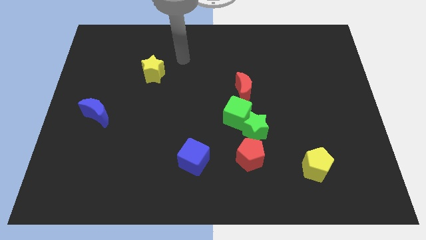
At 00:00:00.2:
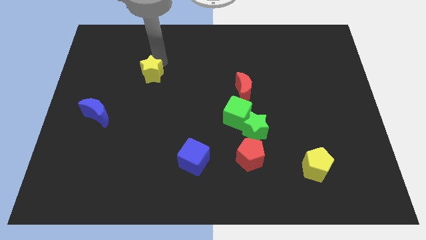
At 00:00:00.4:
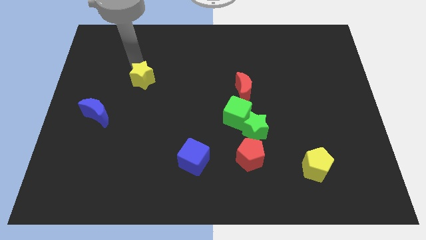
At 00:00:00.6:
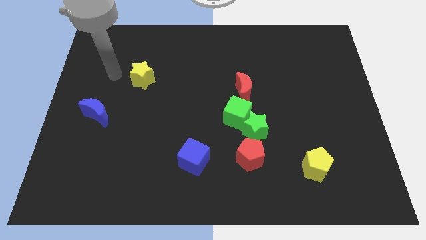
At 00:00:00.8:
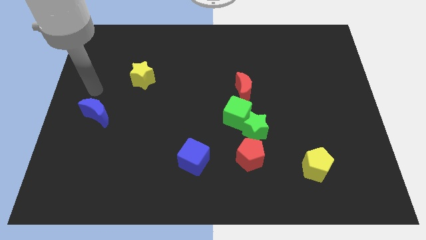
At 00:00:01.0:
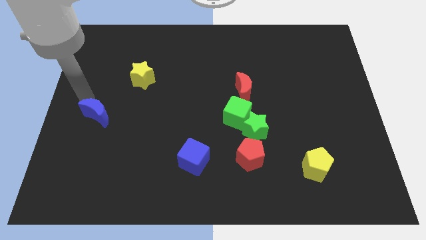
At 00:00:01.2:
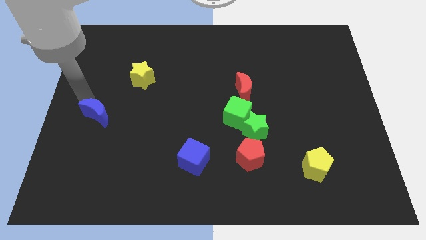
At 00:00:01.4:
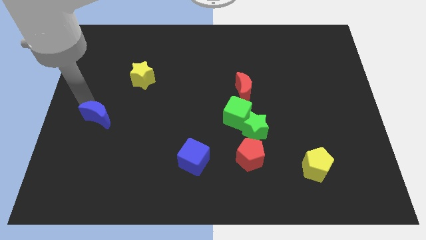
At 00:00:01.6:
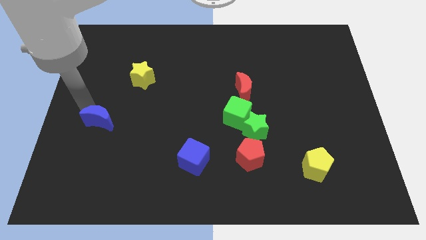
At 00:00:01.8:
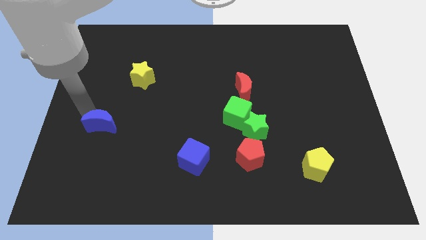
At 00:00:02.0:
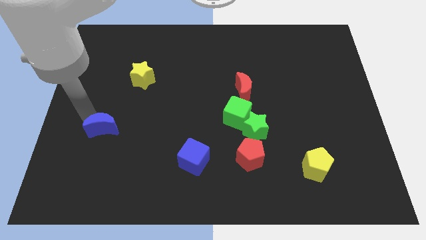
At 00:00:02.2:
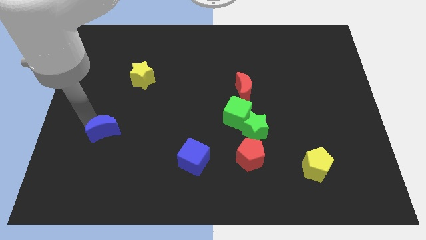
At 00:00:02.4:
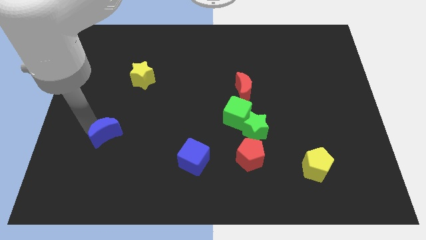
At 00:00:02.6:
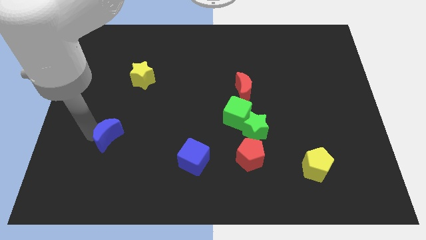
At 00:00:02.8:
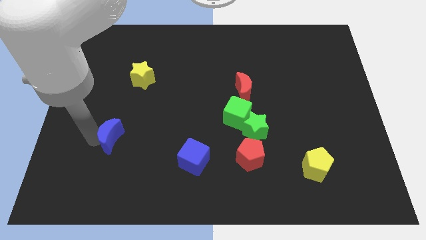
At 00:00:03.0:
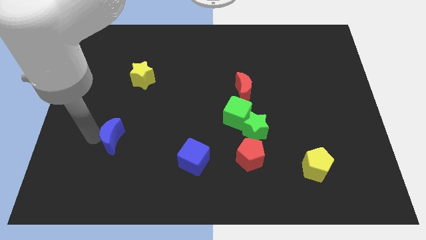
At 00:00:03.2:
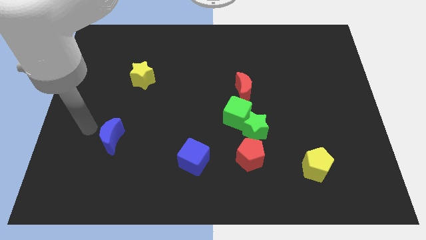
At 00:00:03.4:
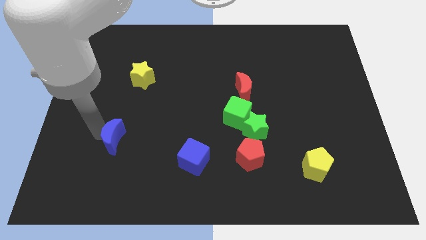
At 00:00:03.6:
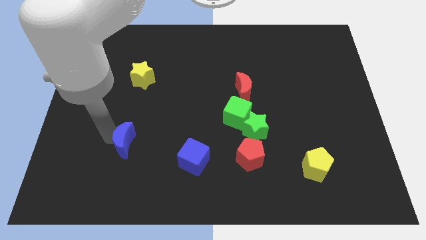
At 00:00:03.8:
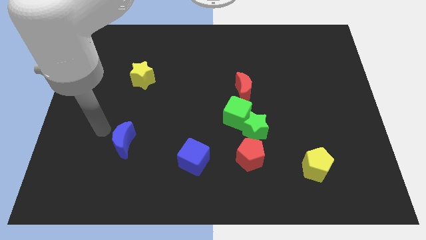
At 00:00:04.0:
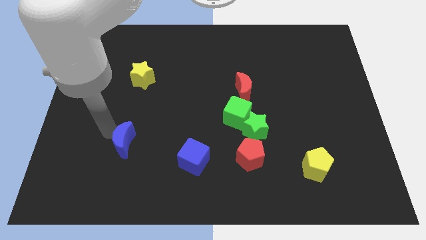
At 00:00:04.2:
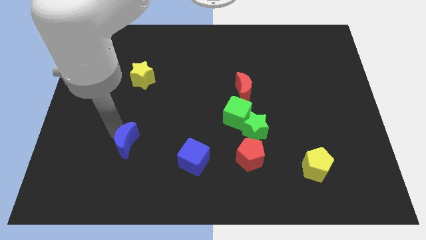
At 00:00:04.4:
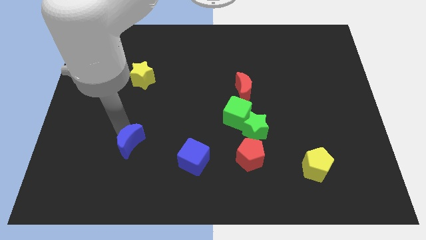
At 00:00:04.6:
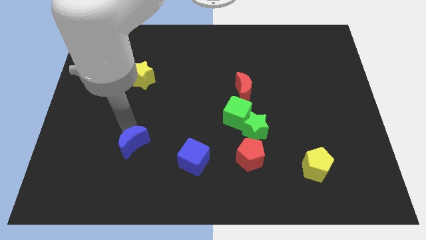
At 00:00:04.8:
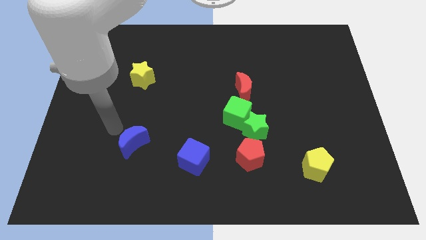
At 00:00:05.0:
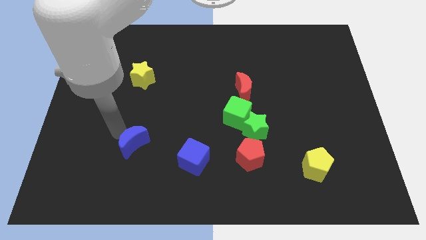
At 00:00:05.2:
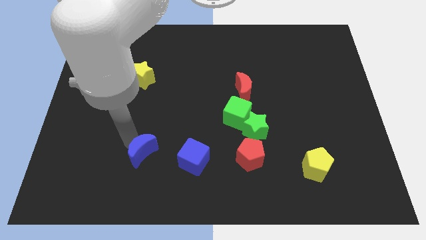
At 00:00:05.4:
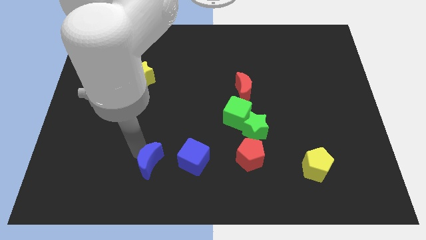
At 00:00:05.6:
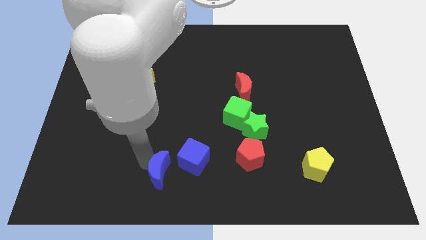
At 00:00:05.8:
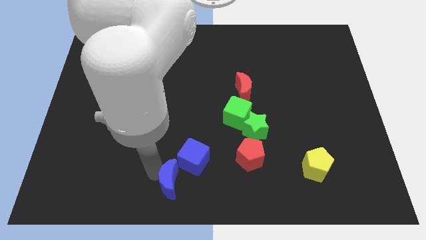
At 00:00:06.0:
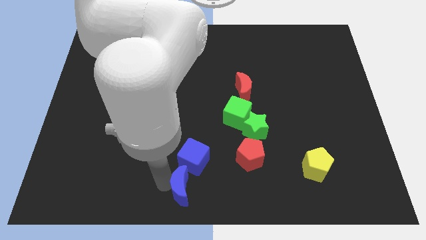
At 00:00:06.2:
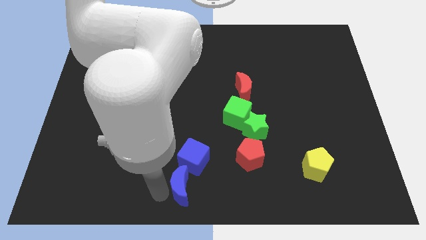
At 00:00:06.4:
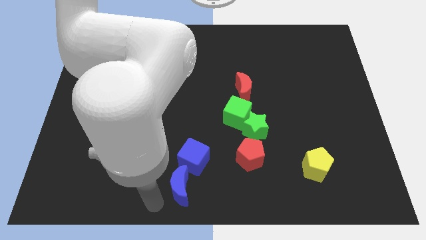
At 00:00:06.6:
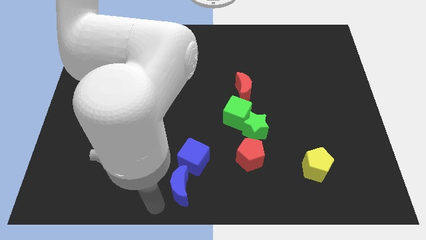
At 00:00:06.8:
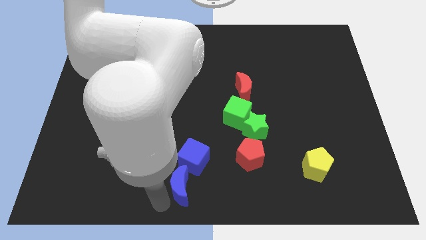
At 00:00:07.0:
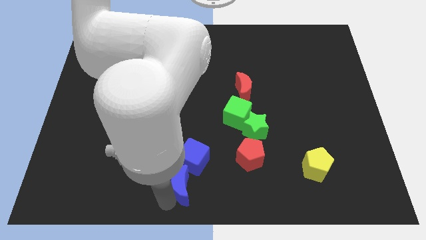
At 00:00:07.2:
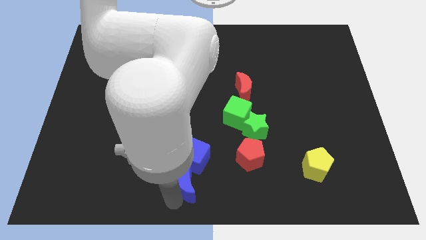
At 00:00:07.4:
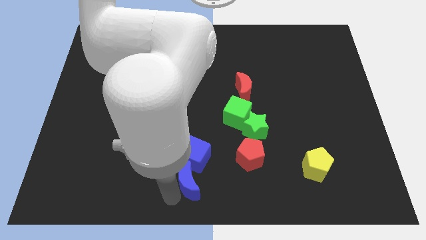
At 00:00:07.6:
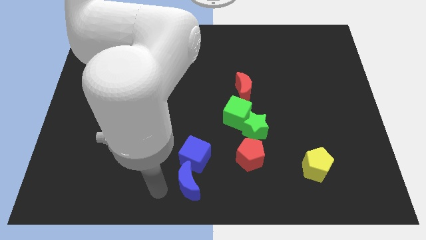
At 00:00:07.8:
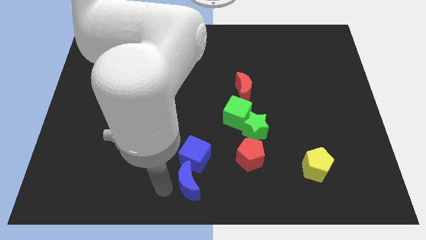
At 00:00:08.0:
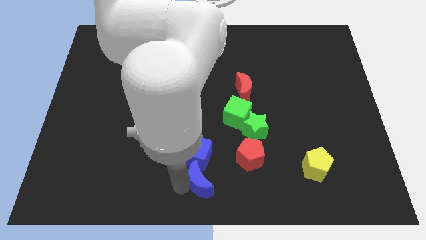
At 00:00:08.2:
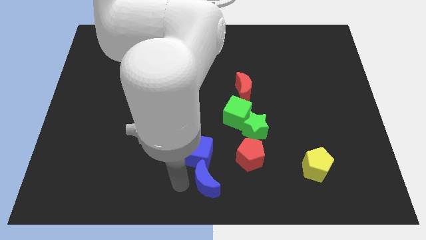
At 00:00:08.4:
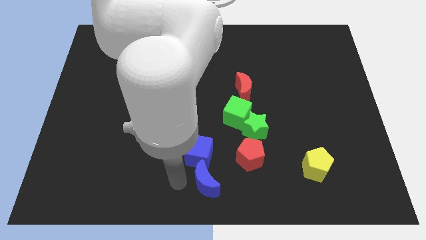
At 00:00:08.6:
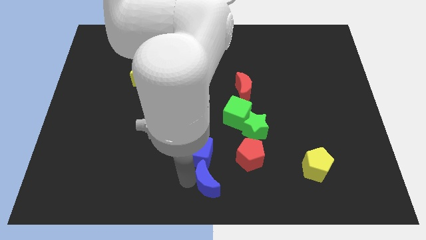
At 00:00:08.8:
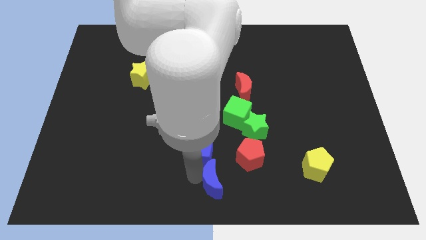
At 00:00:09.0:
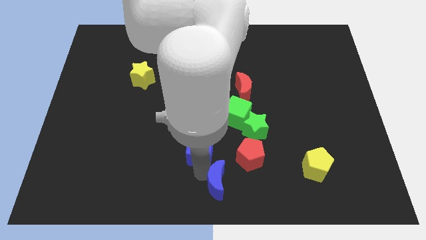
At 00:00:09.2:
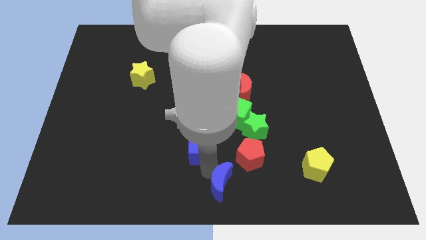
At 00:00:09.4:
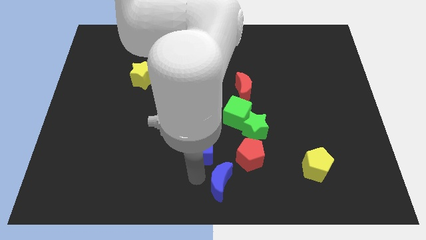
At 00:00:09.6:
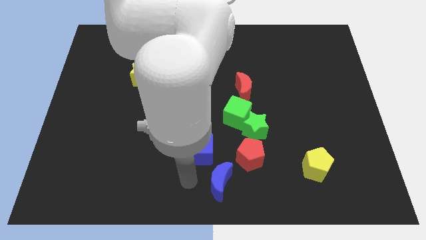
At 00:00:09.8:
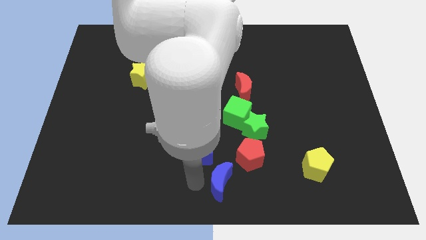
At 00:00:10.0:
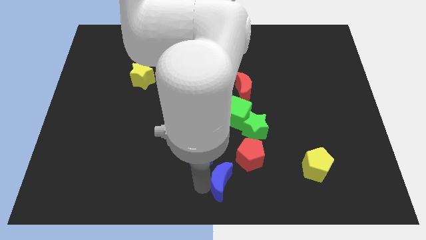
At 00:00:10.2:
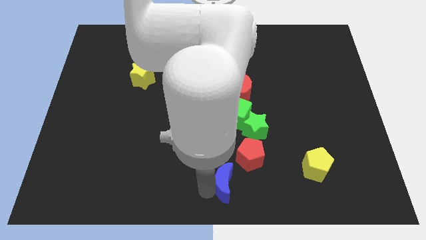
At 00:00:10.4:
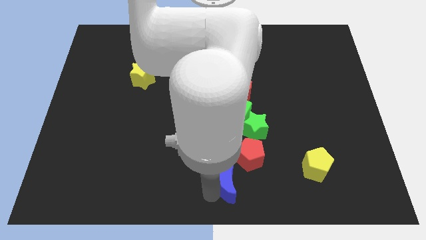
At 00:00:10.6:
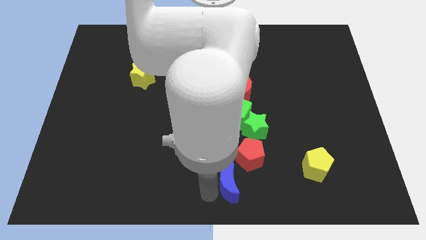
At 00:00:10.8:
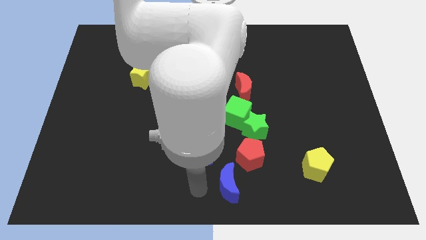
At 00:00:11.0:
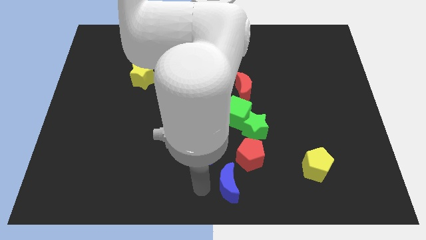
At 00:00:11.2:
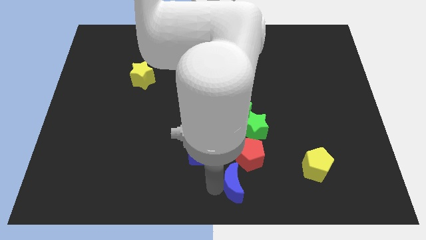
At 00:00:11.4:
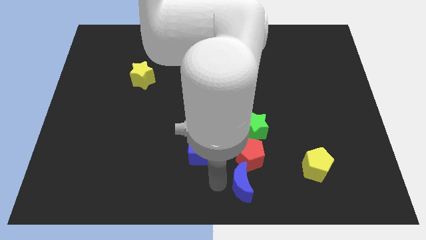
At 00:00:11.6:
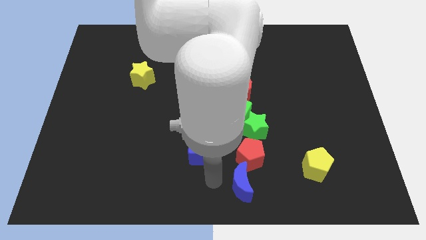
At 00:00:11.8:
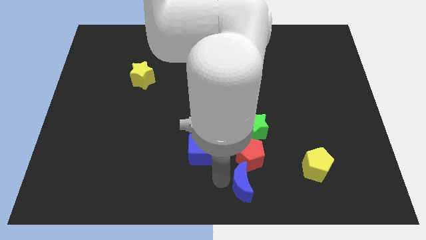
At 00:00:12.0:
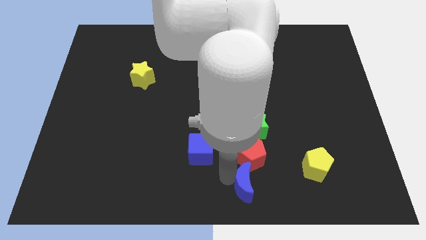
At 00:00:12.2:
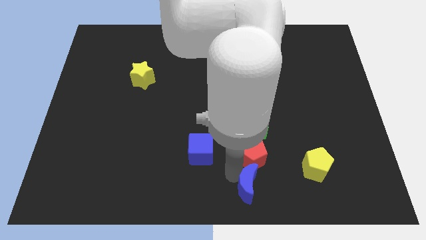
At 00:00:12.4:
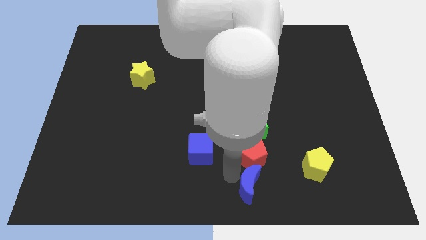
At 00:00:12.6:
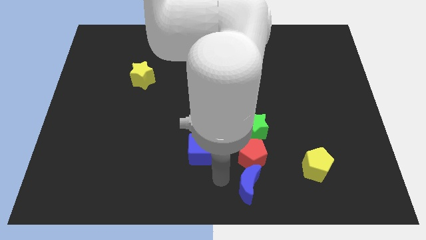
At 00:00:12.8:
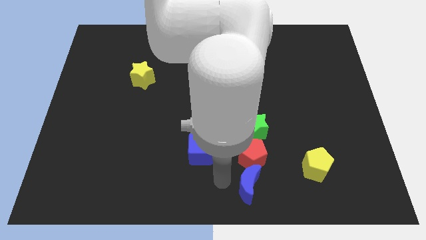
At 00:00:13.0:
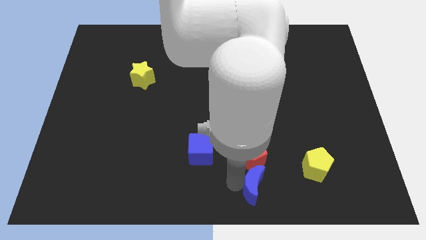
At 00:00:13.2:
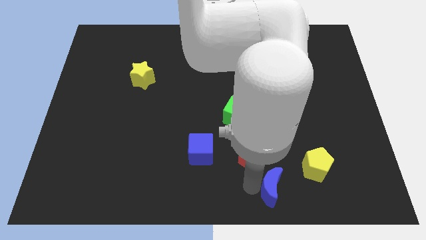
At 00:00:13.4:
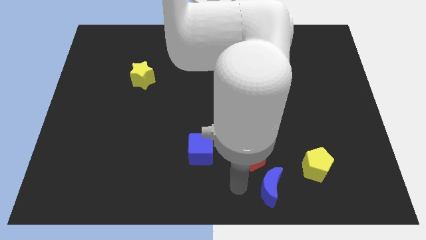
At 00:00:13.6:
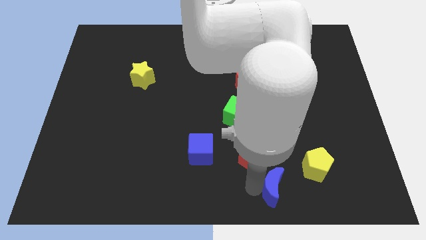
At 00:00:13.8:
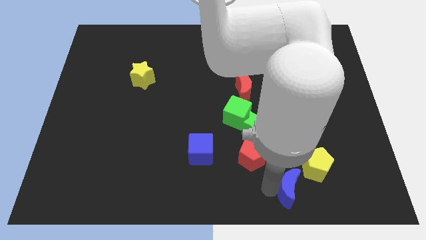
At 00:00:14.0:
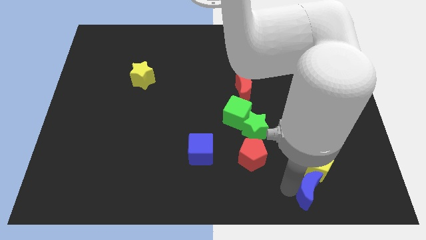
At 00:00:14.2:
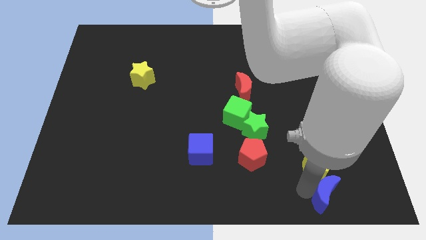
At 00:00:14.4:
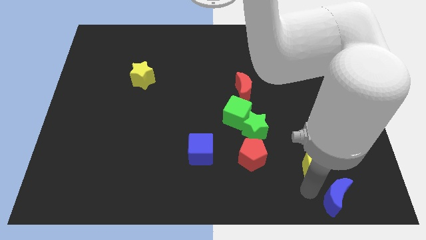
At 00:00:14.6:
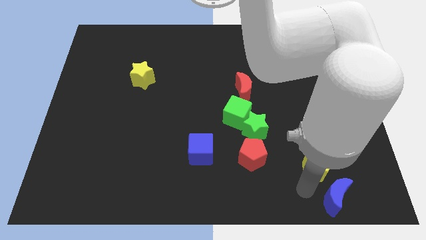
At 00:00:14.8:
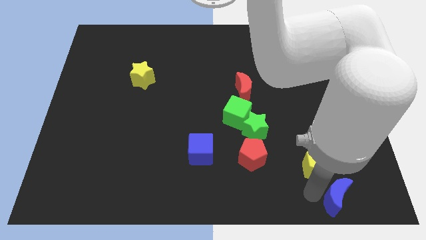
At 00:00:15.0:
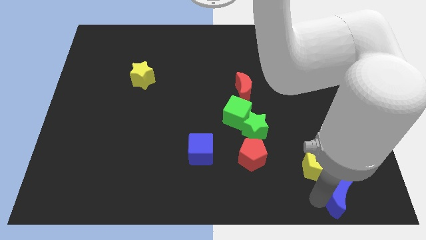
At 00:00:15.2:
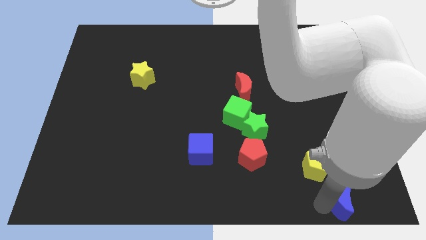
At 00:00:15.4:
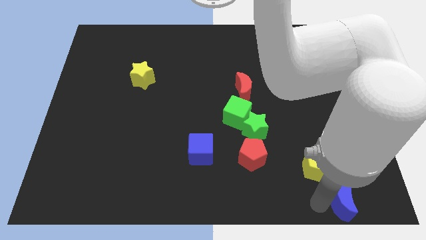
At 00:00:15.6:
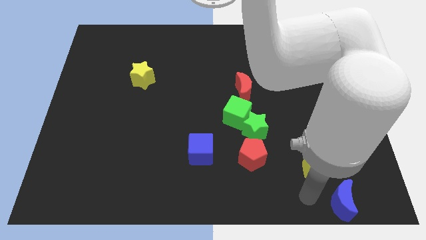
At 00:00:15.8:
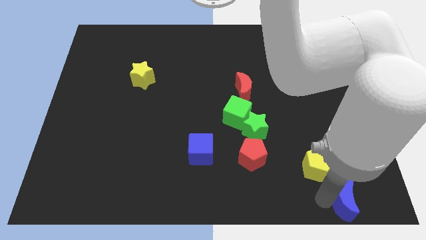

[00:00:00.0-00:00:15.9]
put the blue moon to the bottom right corner
